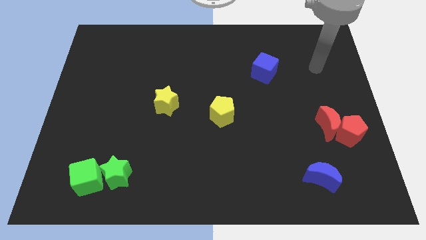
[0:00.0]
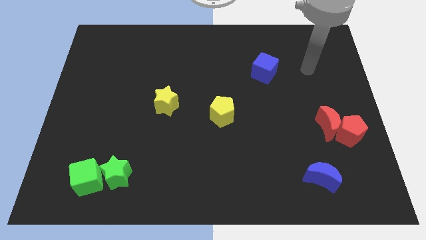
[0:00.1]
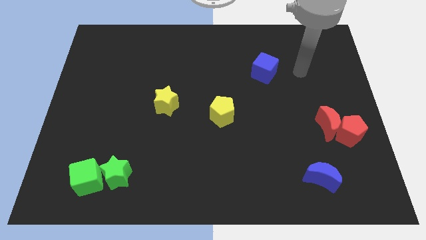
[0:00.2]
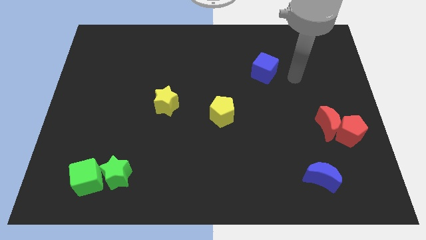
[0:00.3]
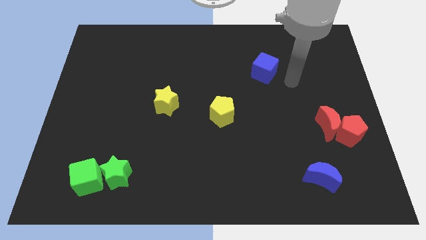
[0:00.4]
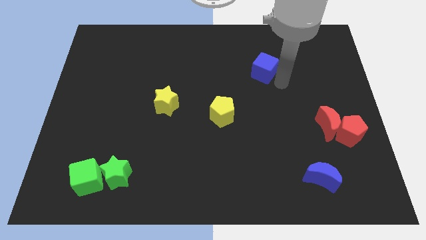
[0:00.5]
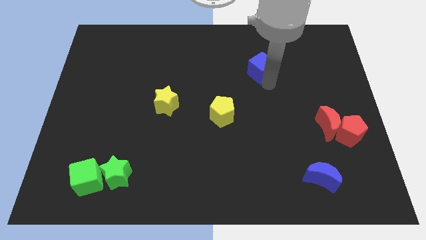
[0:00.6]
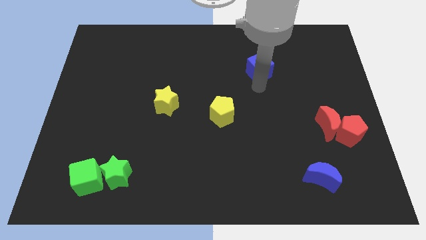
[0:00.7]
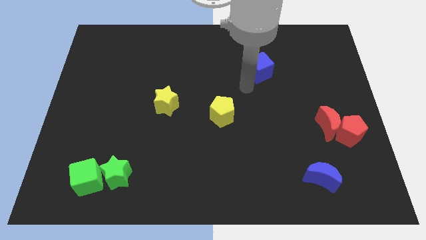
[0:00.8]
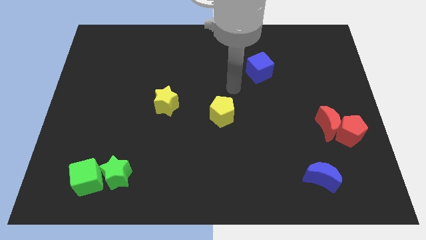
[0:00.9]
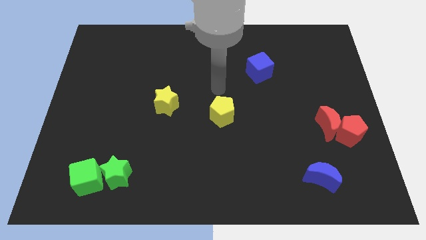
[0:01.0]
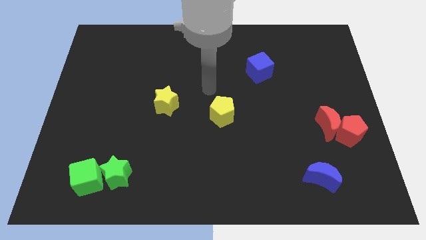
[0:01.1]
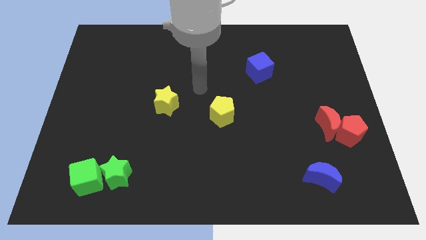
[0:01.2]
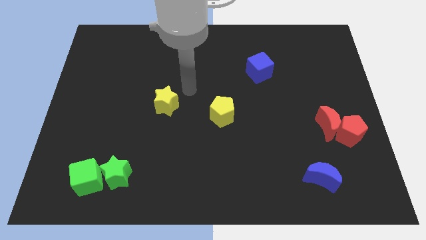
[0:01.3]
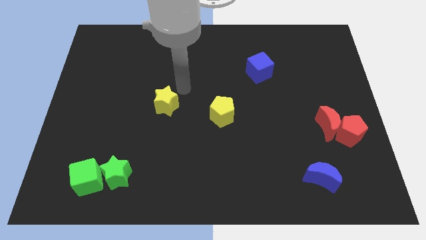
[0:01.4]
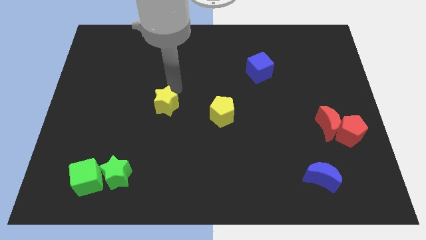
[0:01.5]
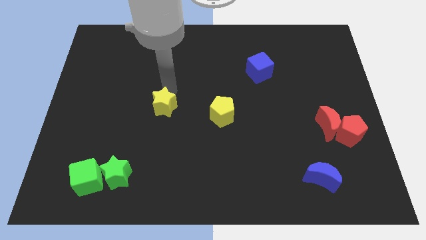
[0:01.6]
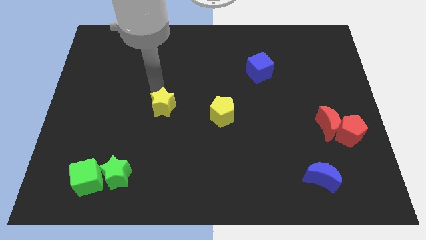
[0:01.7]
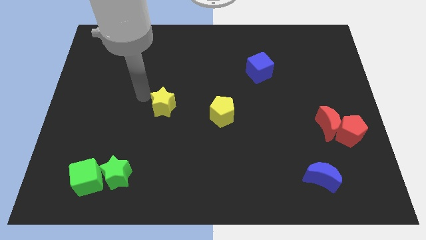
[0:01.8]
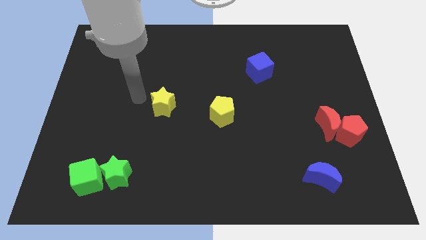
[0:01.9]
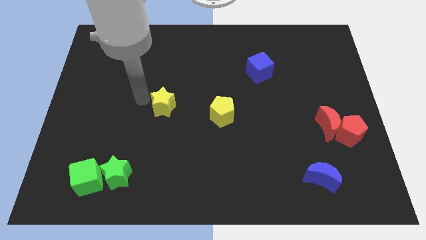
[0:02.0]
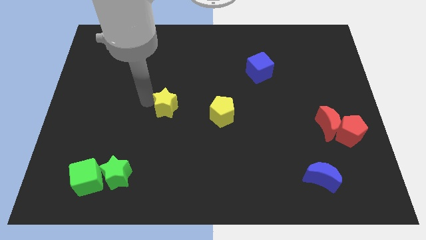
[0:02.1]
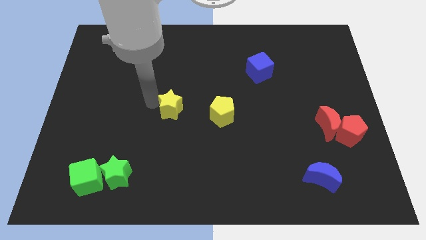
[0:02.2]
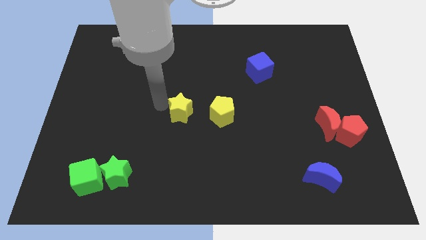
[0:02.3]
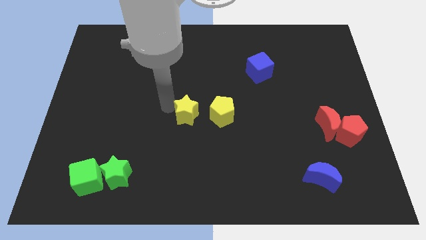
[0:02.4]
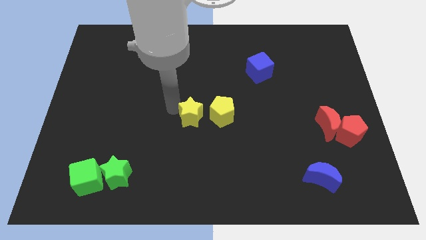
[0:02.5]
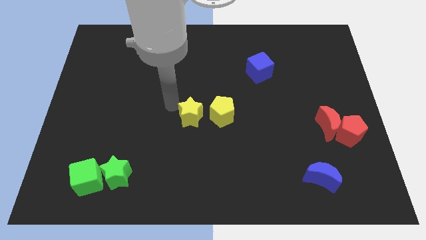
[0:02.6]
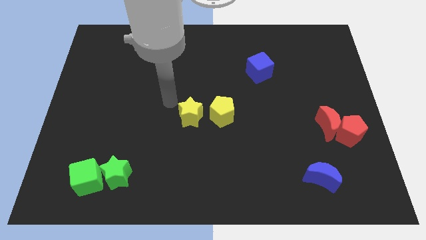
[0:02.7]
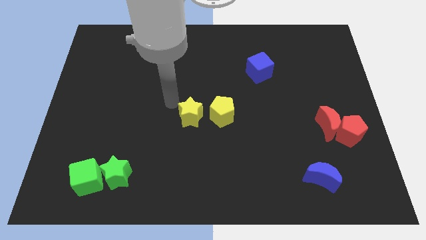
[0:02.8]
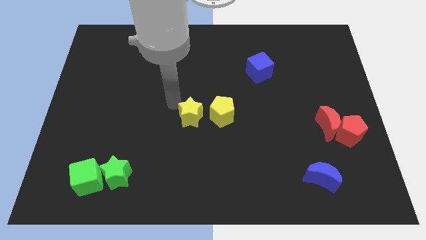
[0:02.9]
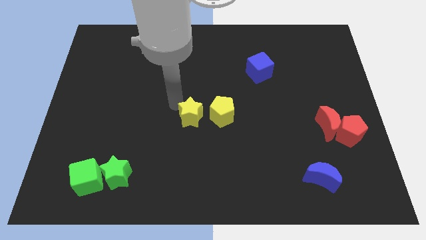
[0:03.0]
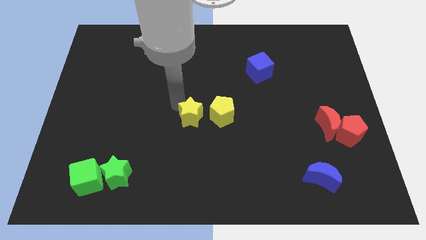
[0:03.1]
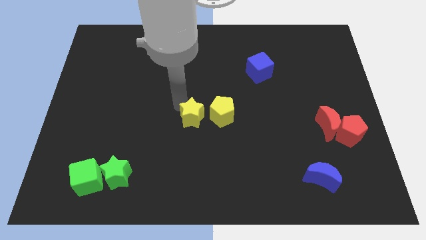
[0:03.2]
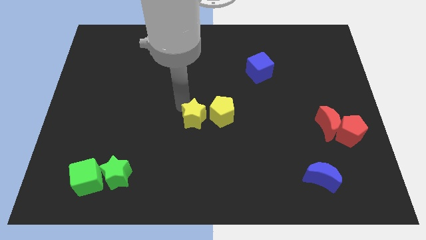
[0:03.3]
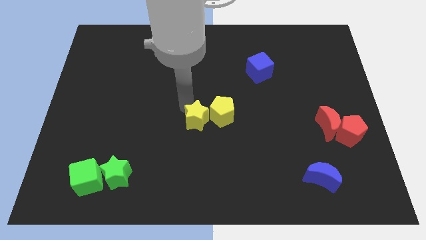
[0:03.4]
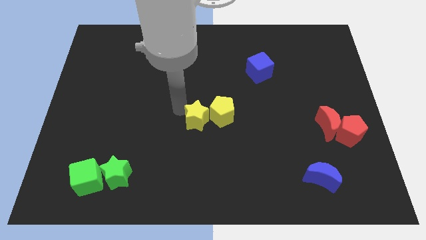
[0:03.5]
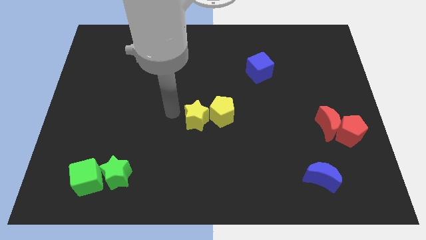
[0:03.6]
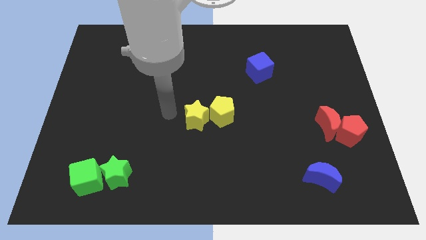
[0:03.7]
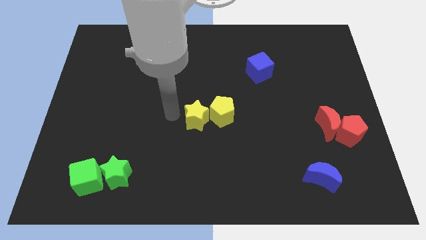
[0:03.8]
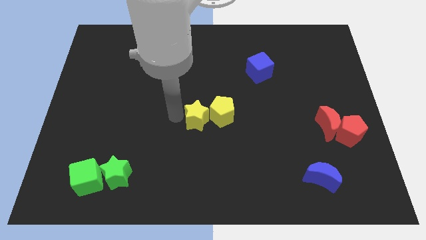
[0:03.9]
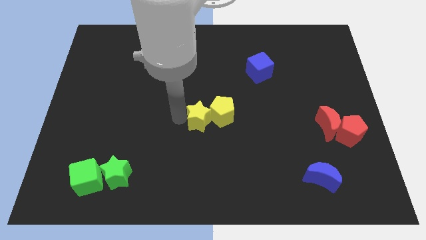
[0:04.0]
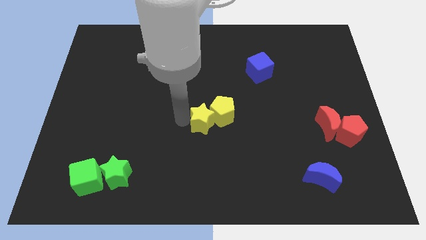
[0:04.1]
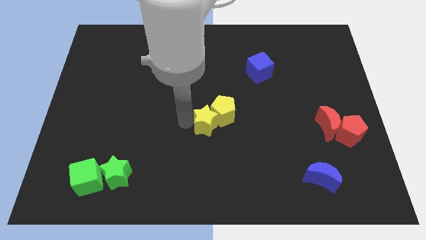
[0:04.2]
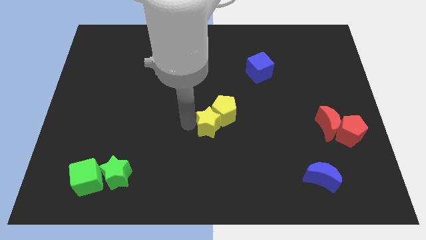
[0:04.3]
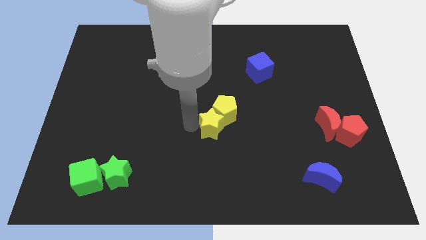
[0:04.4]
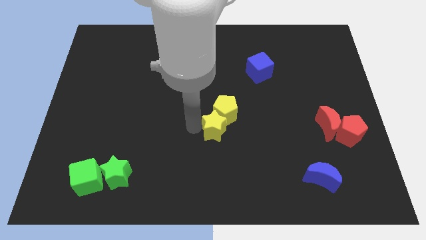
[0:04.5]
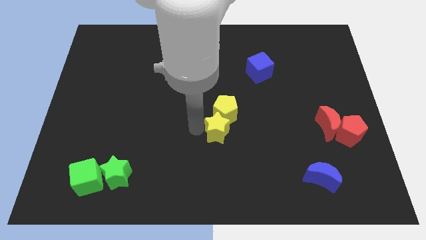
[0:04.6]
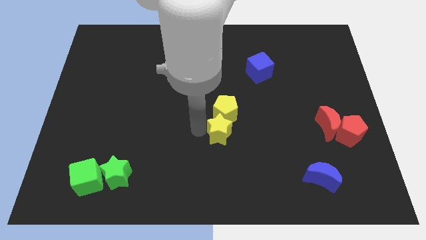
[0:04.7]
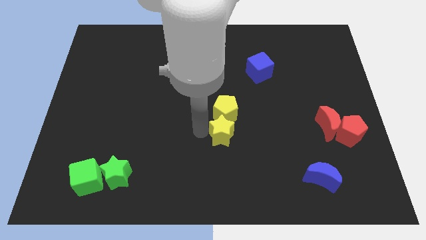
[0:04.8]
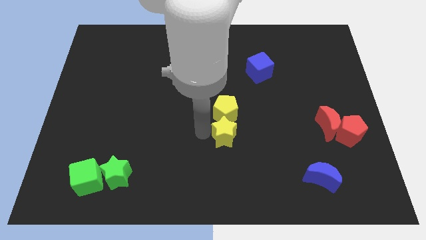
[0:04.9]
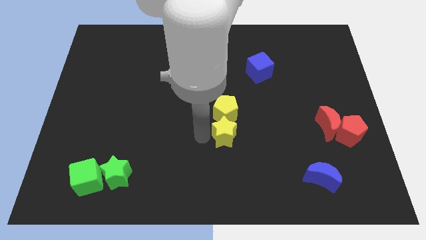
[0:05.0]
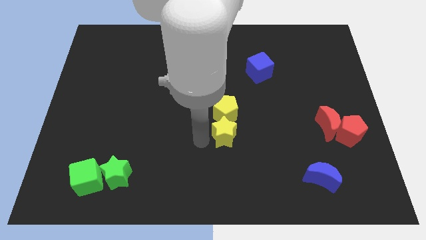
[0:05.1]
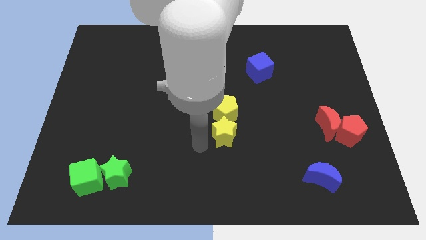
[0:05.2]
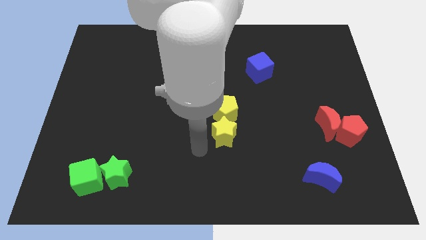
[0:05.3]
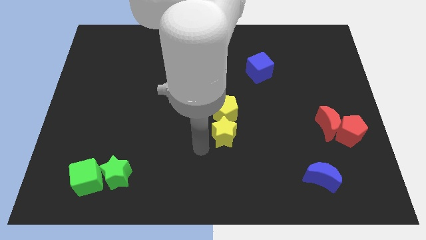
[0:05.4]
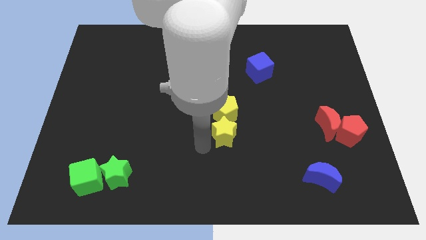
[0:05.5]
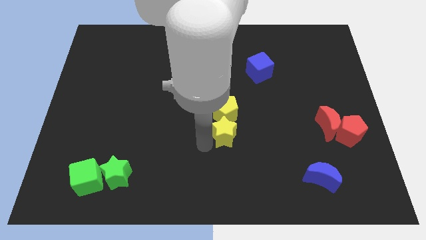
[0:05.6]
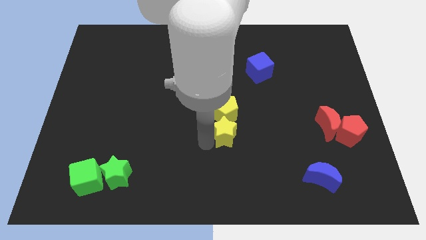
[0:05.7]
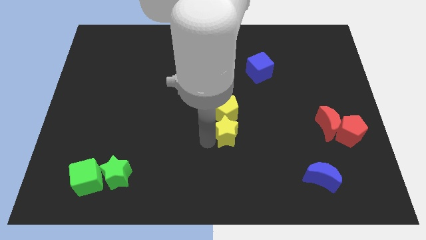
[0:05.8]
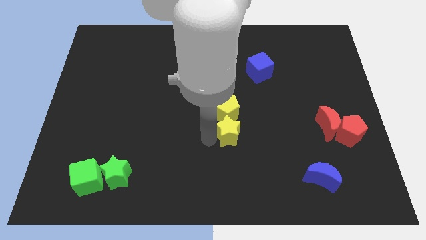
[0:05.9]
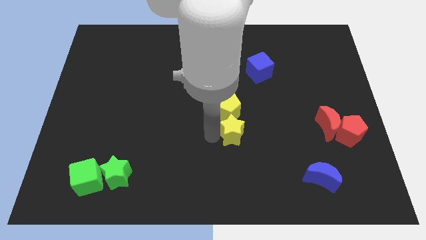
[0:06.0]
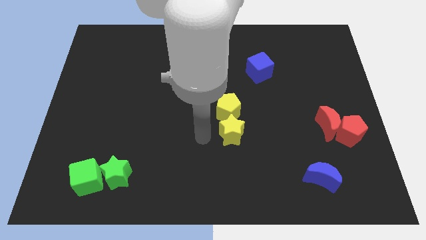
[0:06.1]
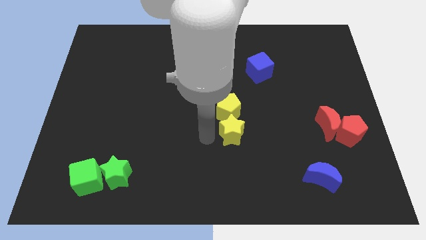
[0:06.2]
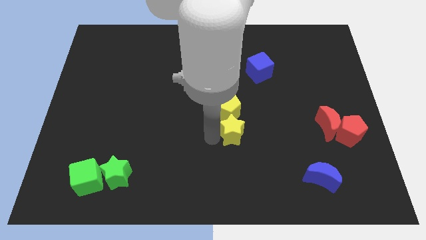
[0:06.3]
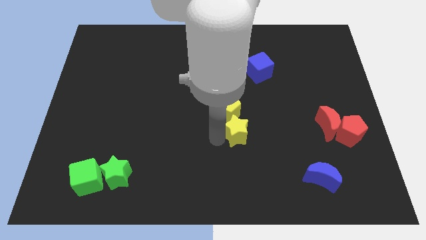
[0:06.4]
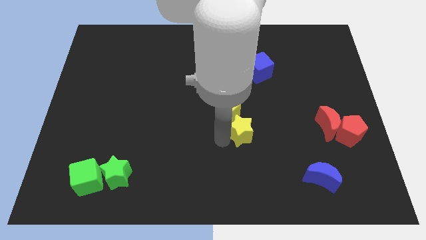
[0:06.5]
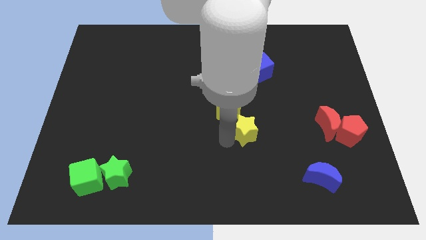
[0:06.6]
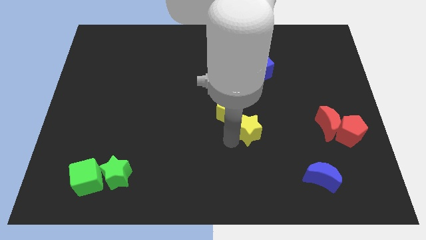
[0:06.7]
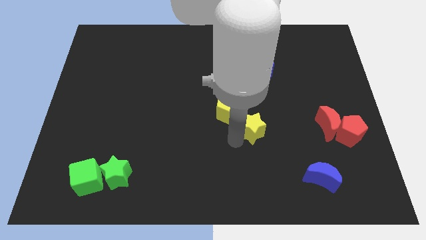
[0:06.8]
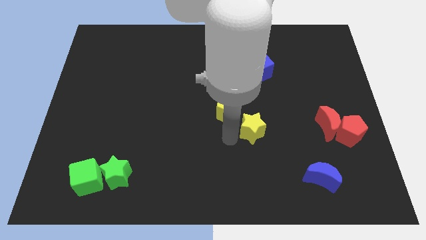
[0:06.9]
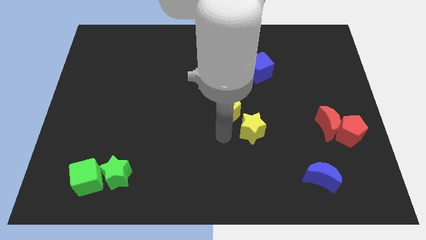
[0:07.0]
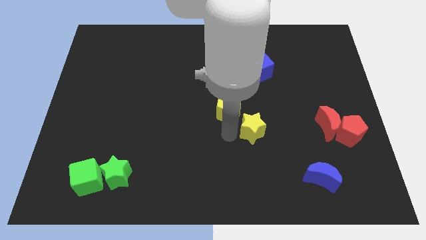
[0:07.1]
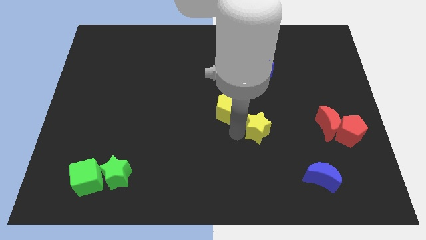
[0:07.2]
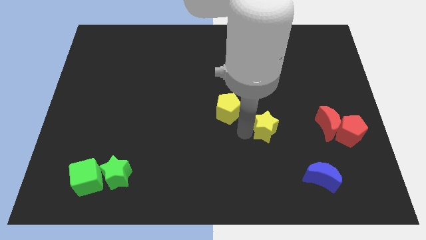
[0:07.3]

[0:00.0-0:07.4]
move the yellow star to the left of the red moon
